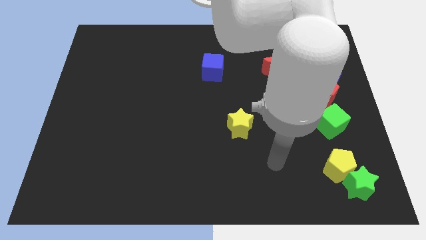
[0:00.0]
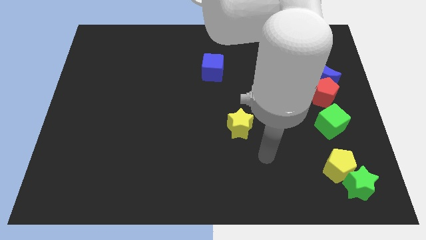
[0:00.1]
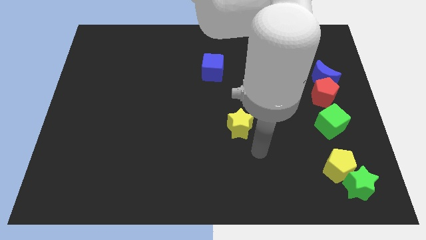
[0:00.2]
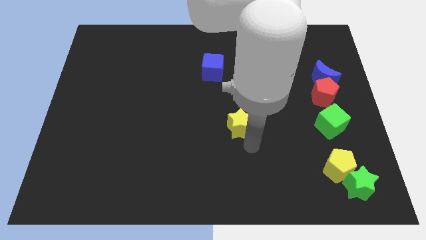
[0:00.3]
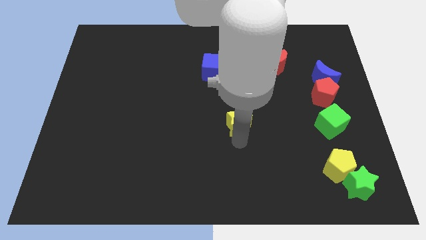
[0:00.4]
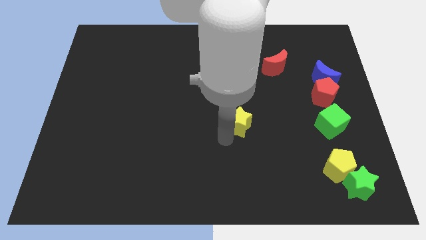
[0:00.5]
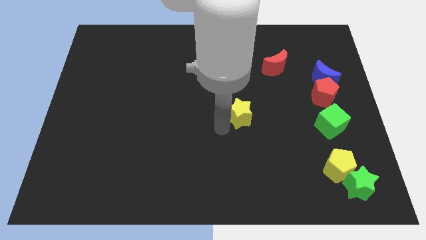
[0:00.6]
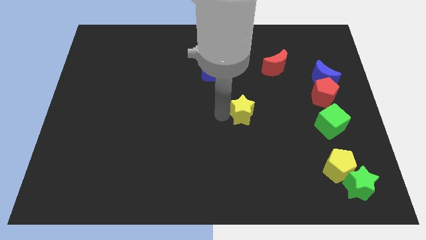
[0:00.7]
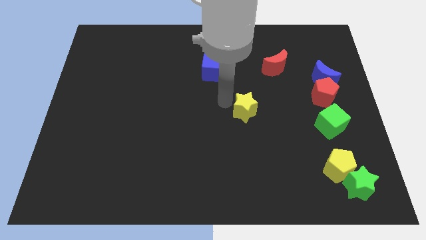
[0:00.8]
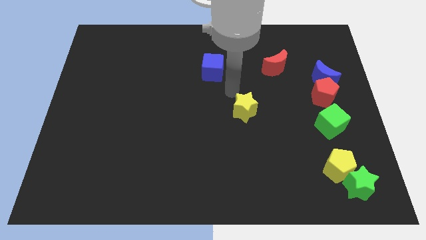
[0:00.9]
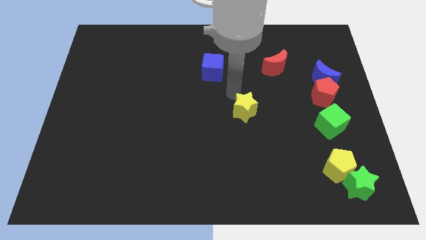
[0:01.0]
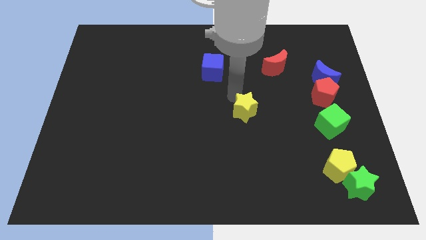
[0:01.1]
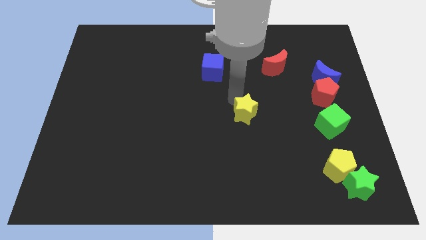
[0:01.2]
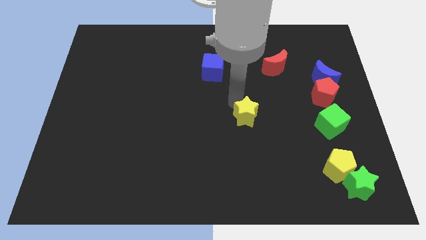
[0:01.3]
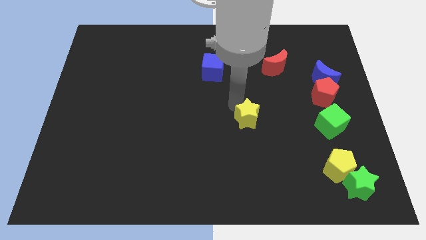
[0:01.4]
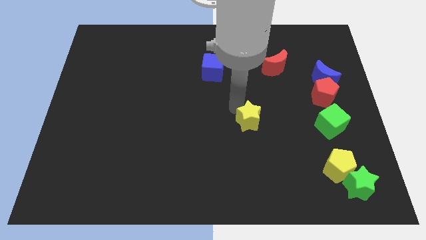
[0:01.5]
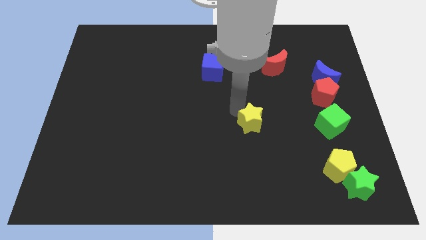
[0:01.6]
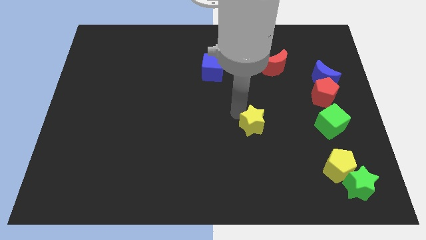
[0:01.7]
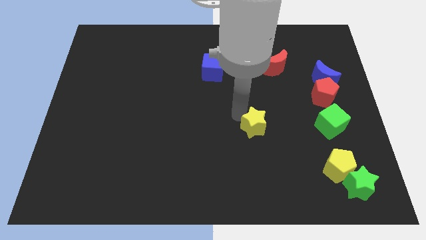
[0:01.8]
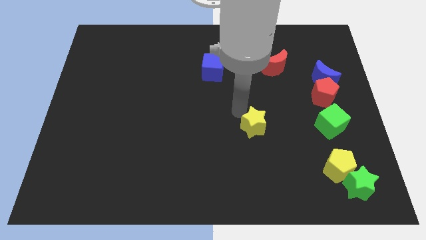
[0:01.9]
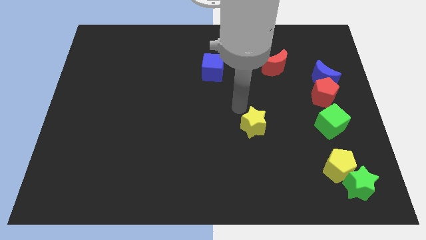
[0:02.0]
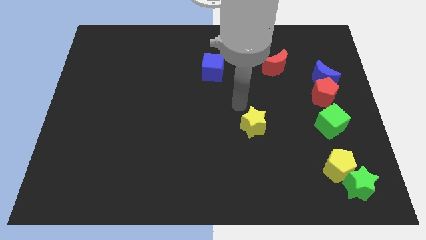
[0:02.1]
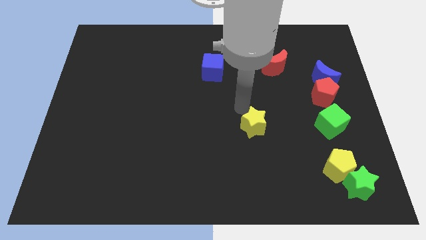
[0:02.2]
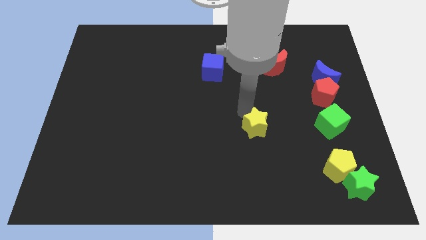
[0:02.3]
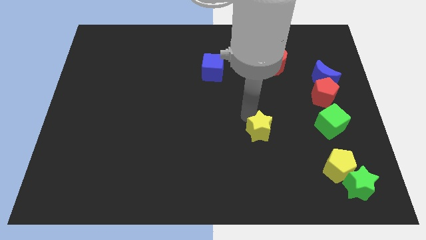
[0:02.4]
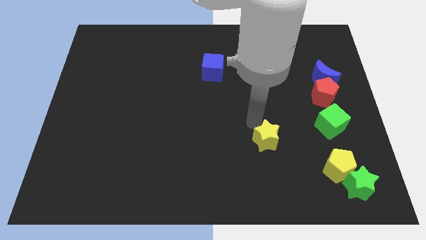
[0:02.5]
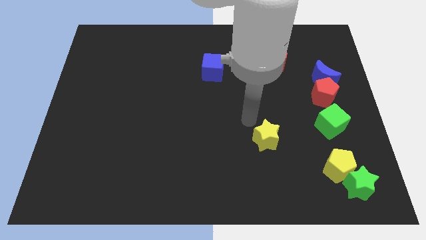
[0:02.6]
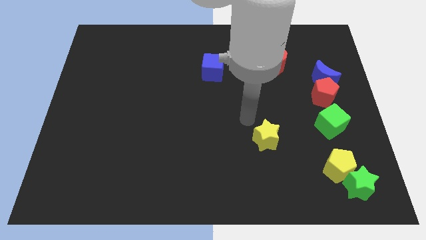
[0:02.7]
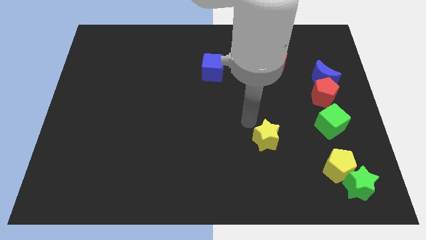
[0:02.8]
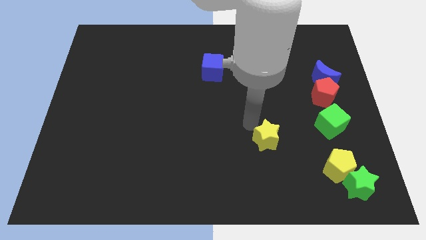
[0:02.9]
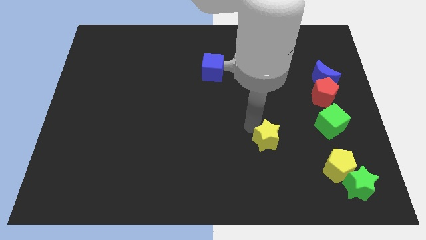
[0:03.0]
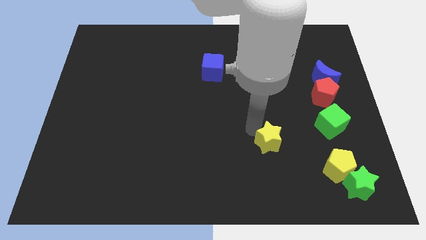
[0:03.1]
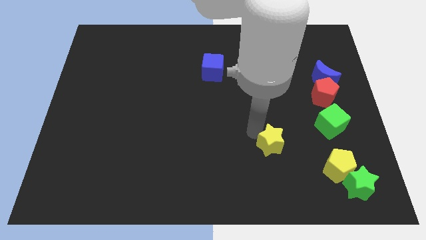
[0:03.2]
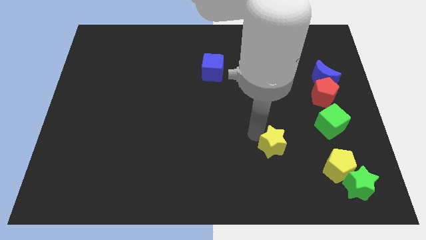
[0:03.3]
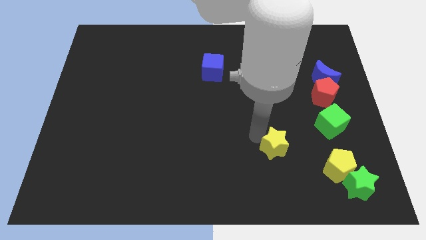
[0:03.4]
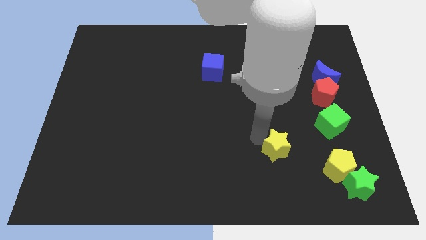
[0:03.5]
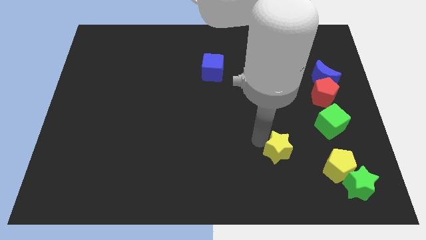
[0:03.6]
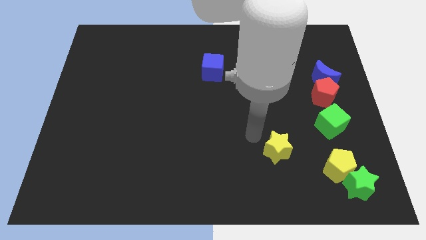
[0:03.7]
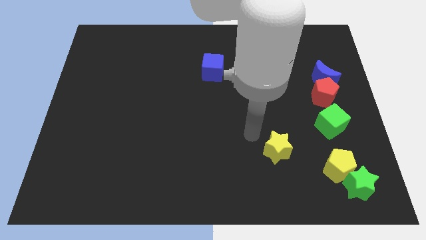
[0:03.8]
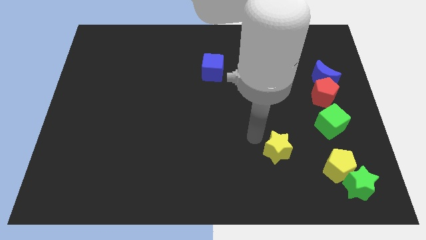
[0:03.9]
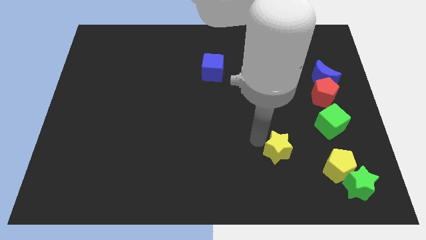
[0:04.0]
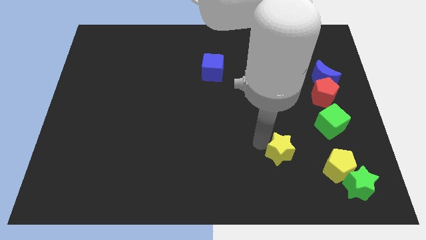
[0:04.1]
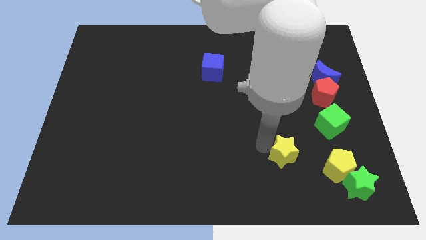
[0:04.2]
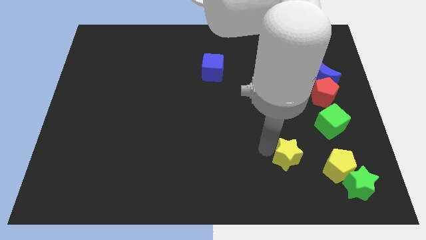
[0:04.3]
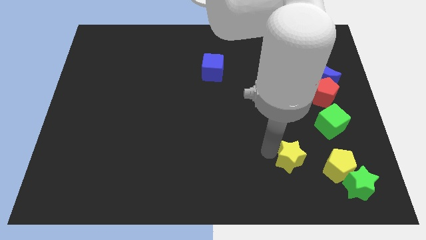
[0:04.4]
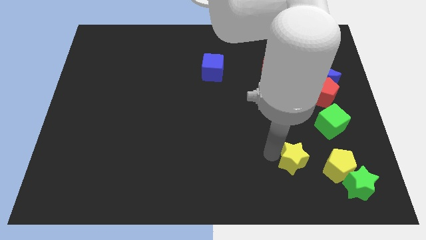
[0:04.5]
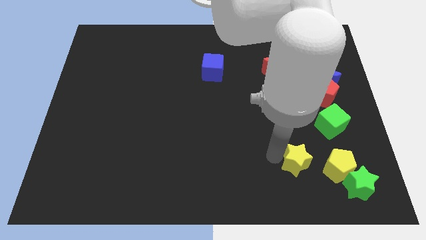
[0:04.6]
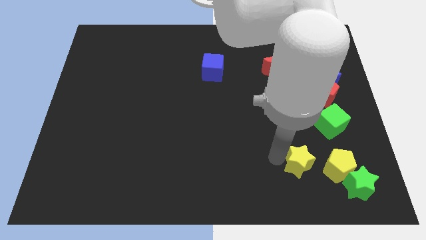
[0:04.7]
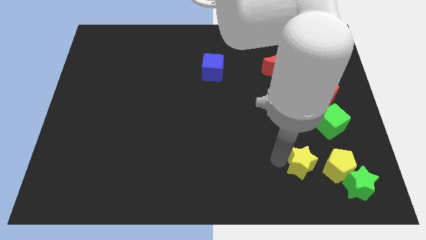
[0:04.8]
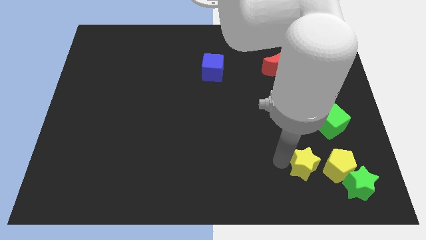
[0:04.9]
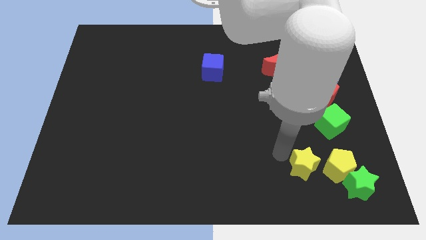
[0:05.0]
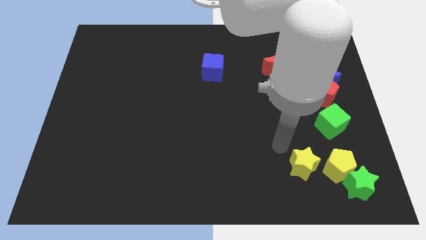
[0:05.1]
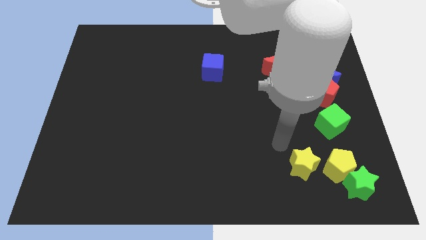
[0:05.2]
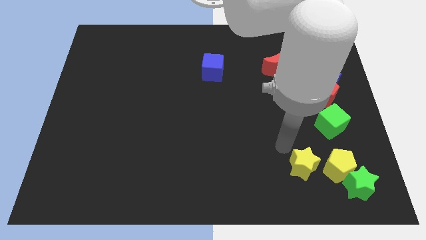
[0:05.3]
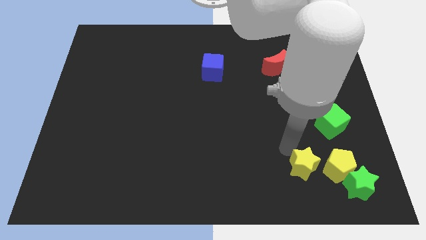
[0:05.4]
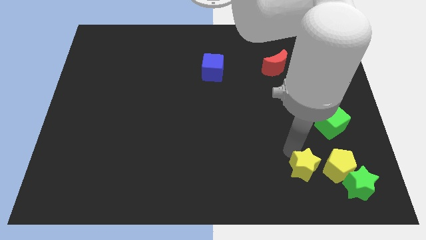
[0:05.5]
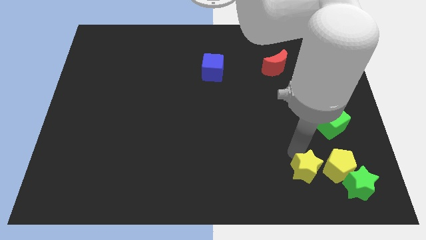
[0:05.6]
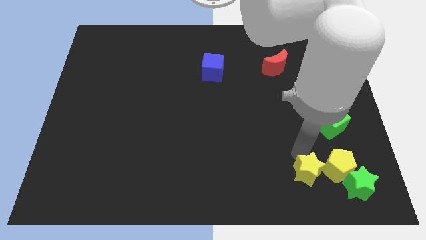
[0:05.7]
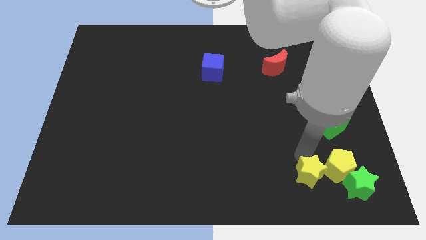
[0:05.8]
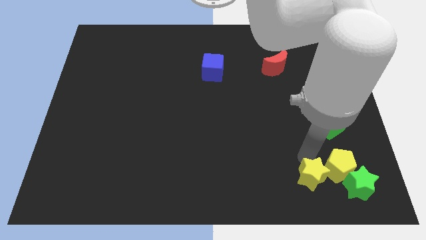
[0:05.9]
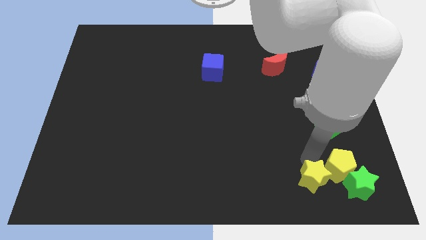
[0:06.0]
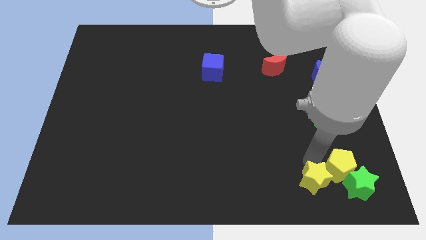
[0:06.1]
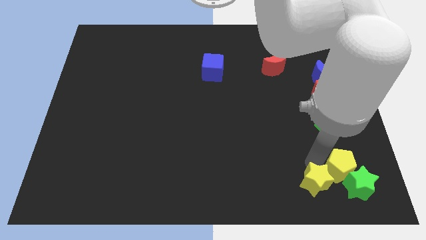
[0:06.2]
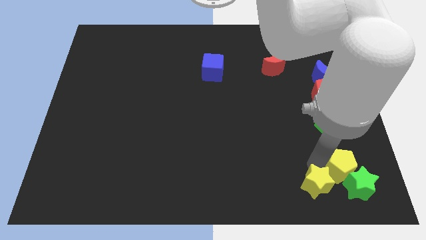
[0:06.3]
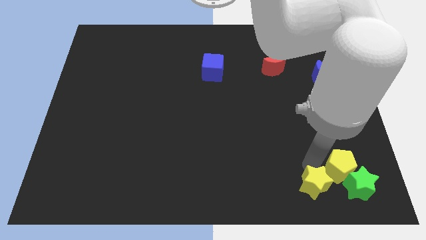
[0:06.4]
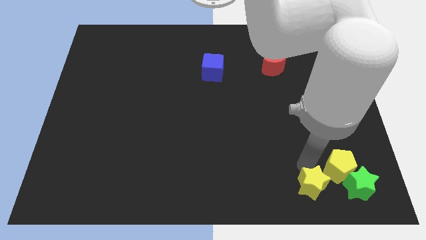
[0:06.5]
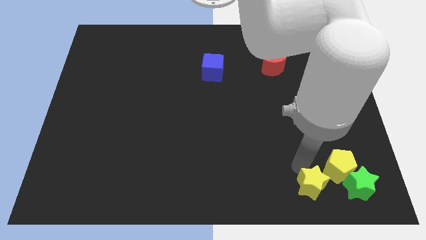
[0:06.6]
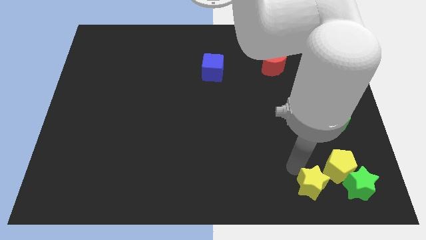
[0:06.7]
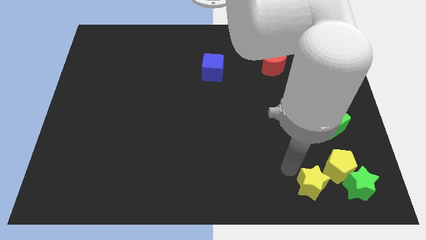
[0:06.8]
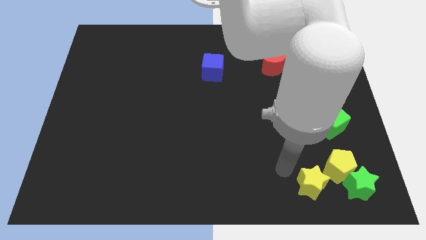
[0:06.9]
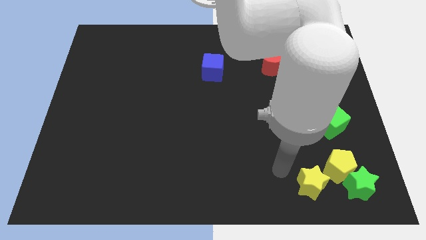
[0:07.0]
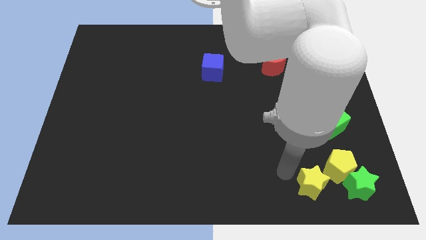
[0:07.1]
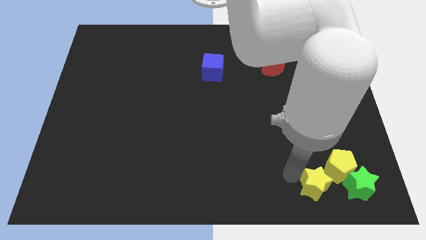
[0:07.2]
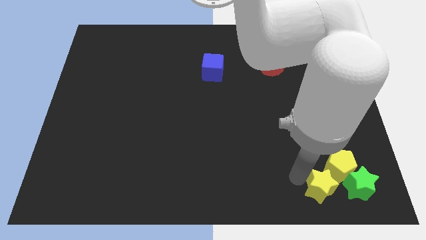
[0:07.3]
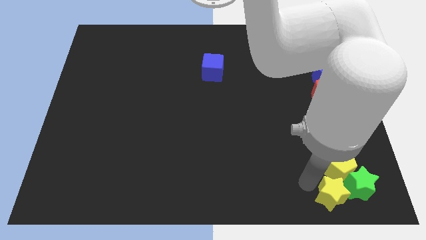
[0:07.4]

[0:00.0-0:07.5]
put the yellow star next to the green star
